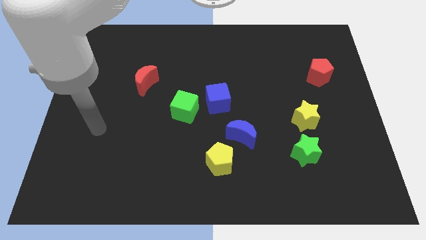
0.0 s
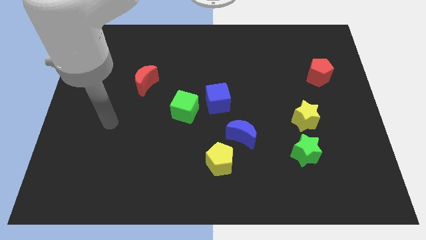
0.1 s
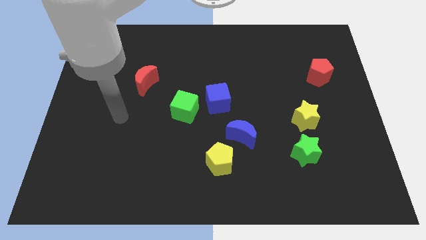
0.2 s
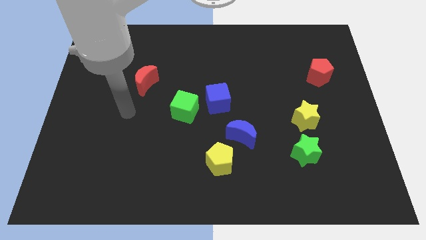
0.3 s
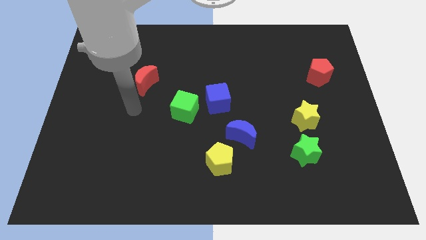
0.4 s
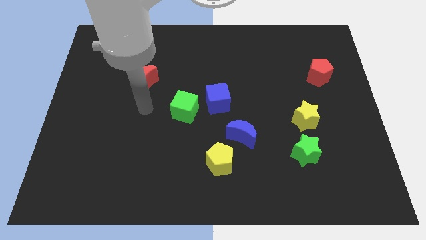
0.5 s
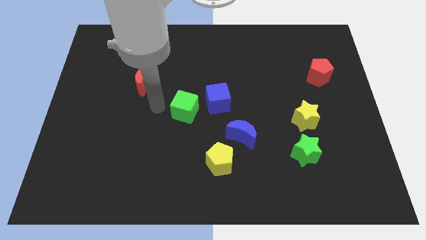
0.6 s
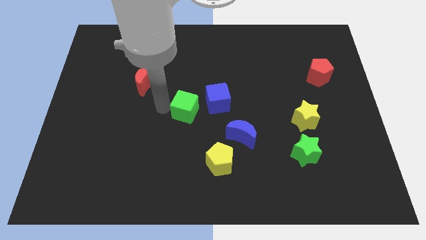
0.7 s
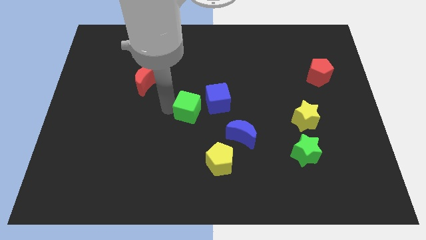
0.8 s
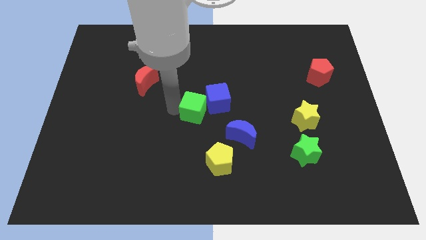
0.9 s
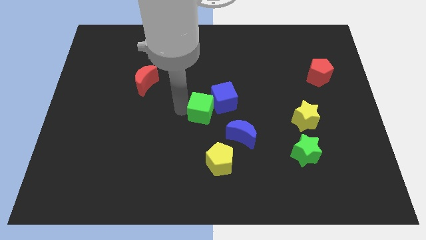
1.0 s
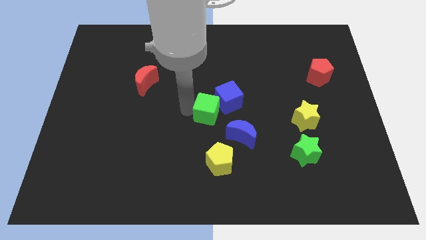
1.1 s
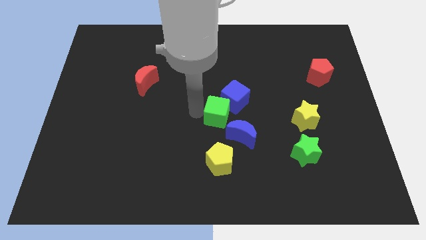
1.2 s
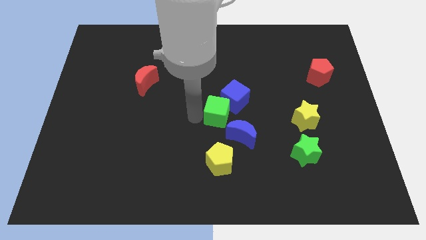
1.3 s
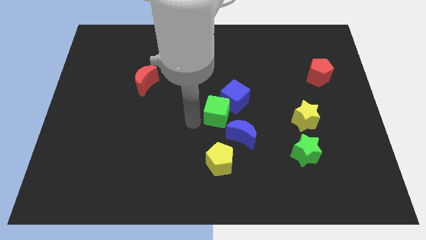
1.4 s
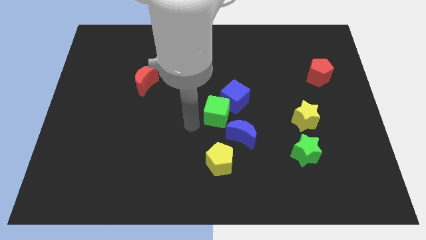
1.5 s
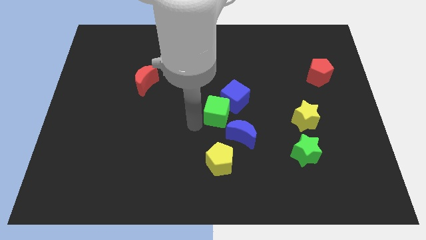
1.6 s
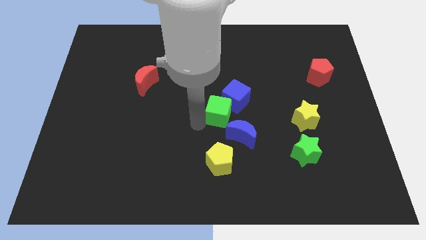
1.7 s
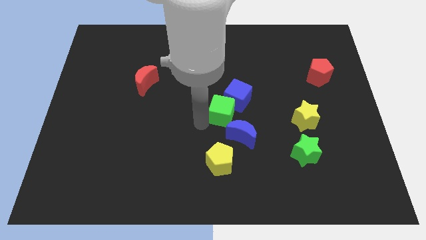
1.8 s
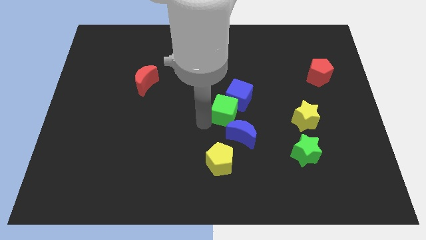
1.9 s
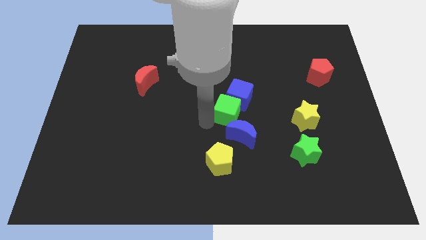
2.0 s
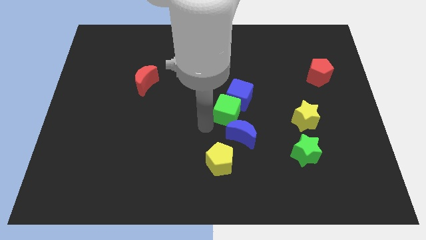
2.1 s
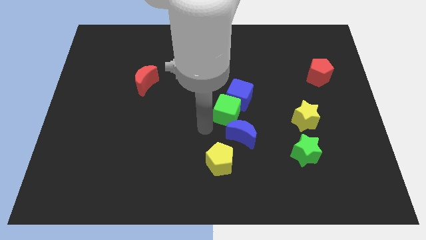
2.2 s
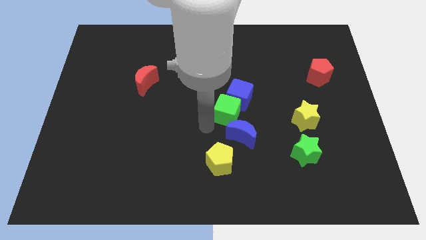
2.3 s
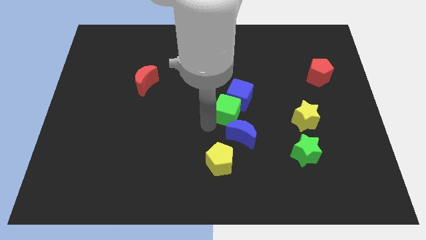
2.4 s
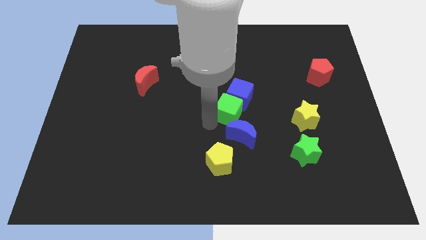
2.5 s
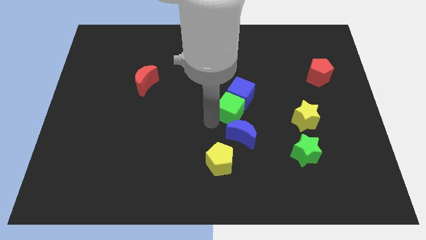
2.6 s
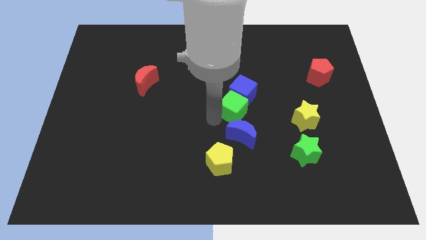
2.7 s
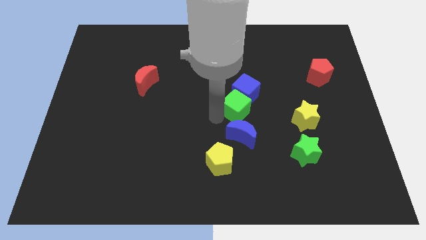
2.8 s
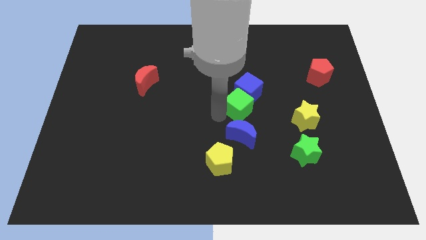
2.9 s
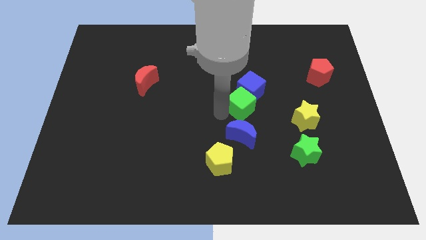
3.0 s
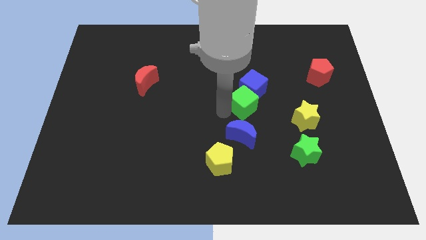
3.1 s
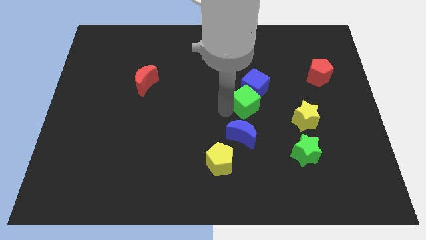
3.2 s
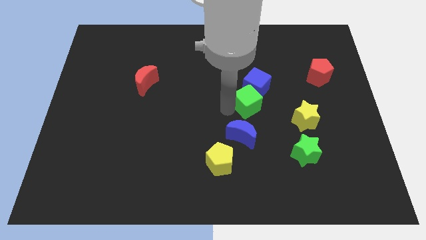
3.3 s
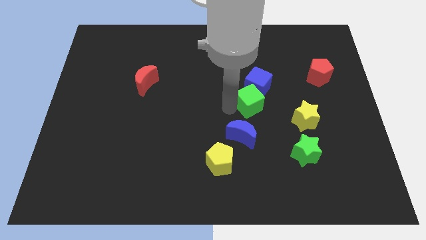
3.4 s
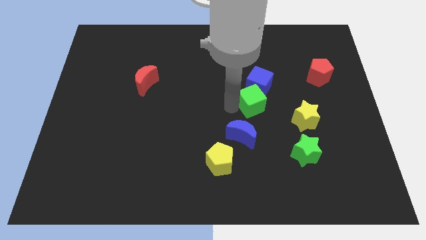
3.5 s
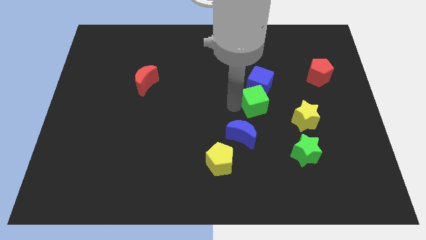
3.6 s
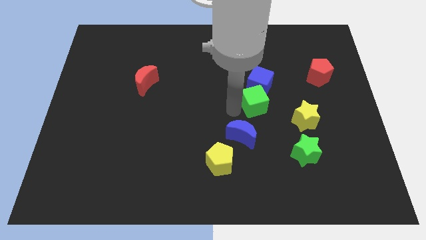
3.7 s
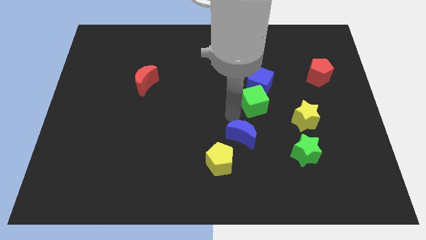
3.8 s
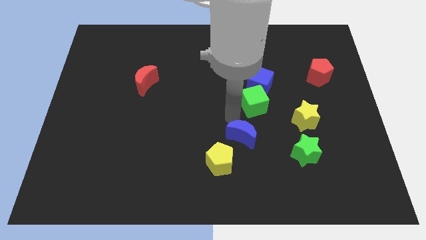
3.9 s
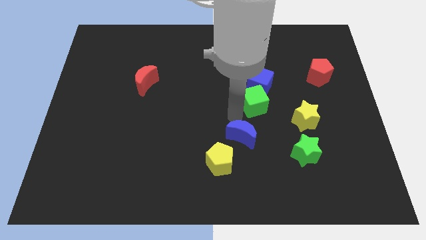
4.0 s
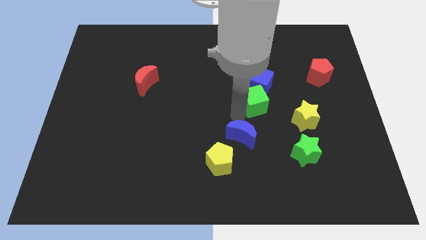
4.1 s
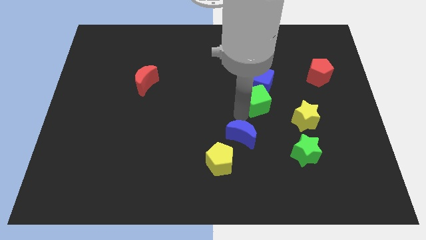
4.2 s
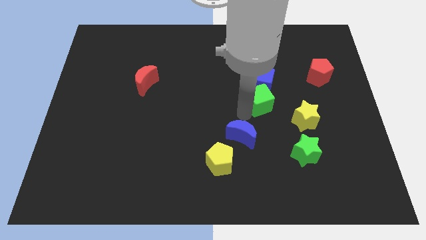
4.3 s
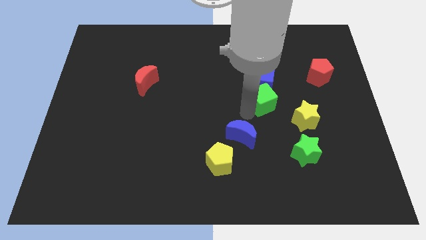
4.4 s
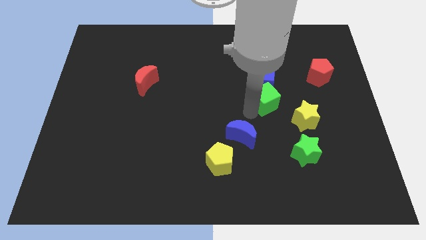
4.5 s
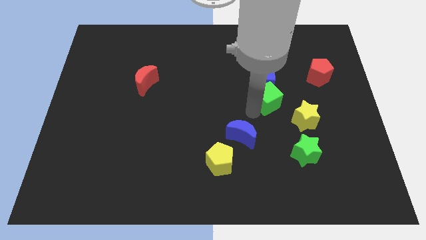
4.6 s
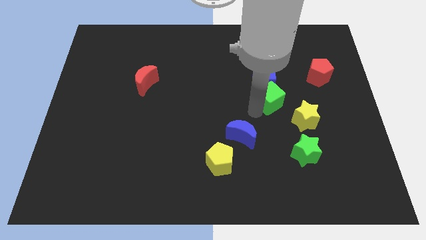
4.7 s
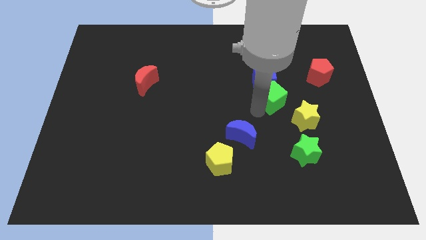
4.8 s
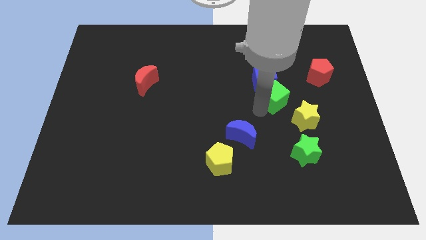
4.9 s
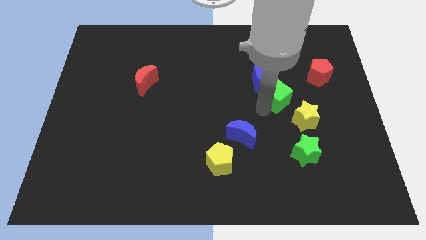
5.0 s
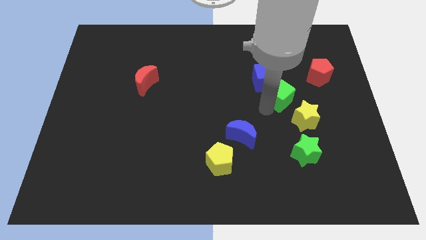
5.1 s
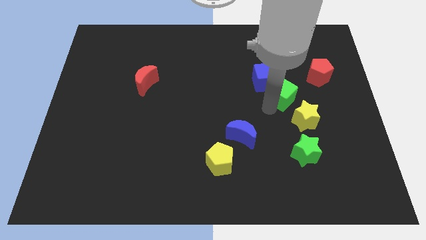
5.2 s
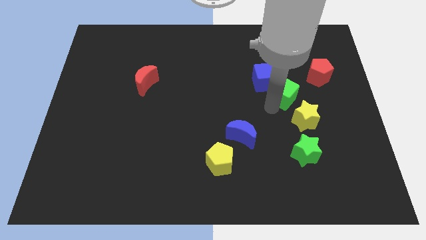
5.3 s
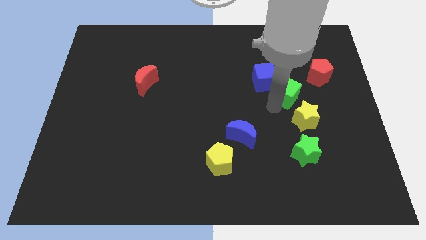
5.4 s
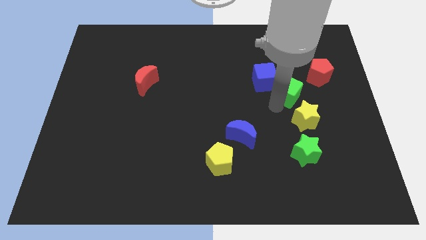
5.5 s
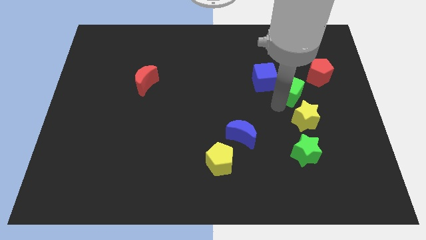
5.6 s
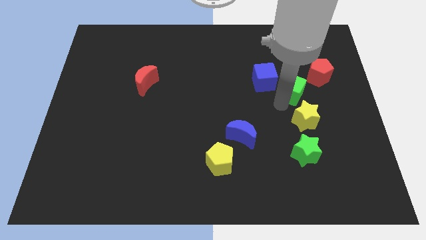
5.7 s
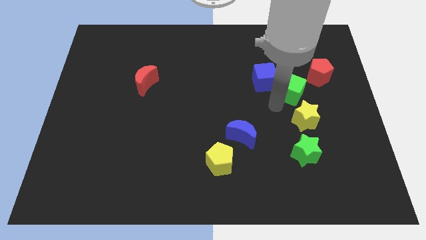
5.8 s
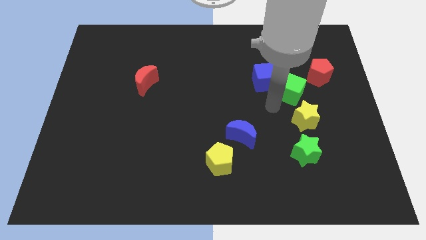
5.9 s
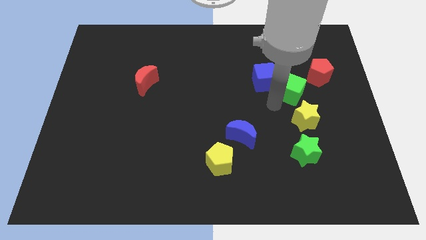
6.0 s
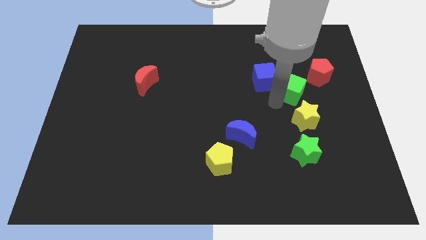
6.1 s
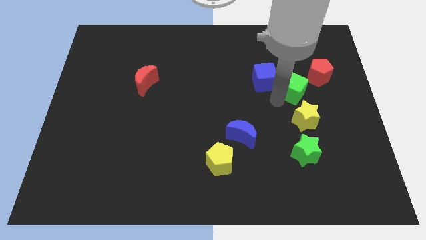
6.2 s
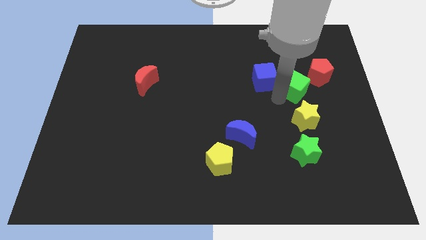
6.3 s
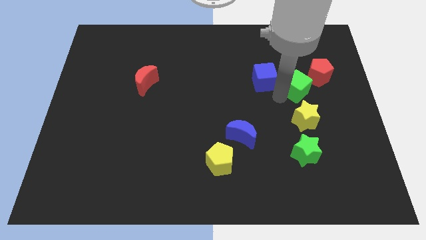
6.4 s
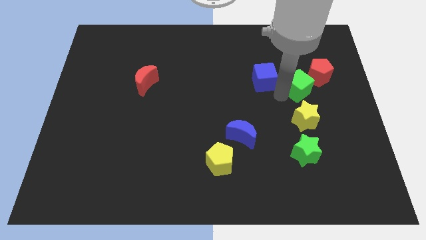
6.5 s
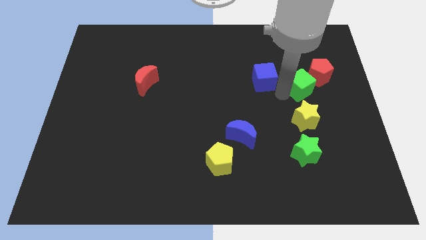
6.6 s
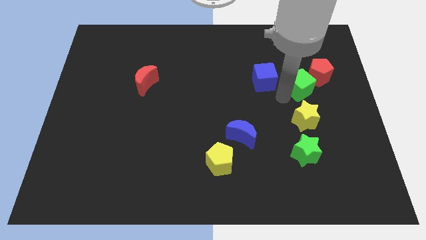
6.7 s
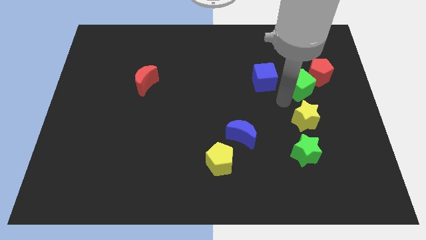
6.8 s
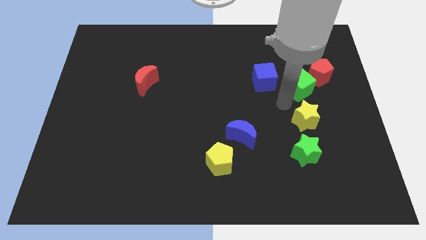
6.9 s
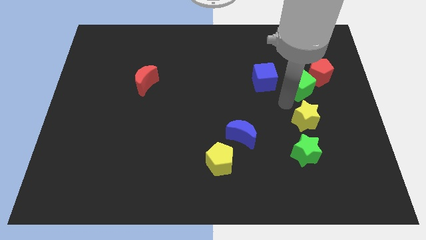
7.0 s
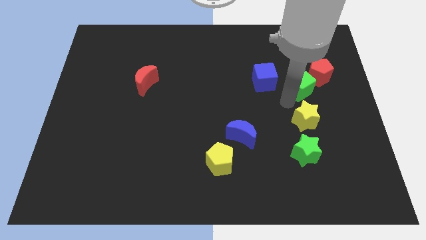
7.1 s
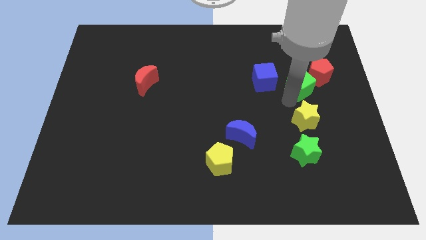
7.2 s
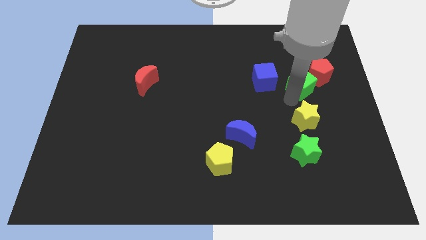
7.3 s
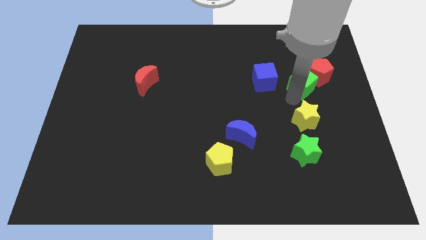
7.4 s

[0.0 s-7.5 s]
put the green cube close to the red pentagon

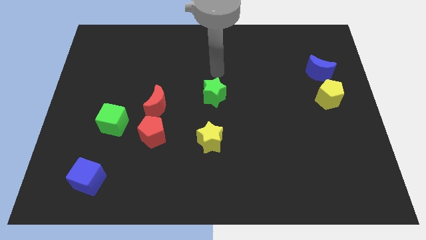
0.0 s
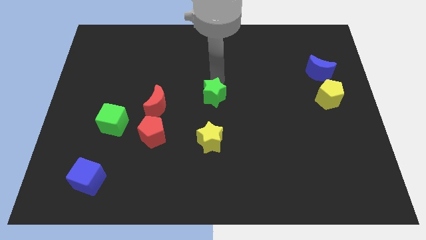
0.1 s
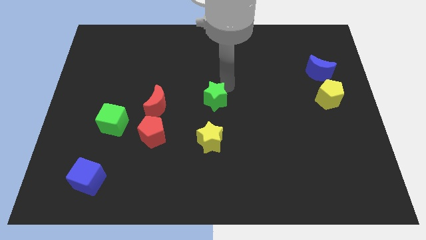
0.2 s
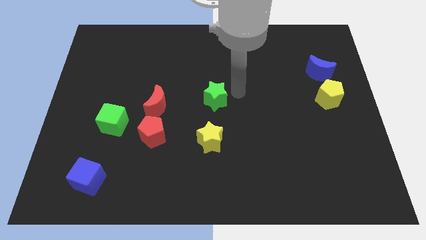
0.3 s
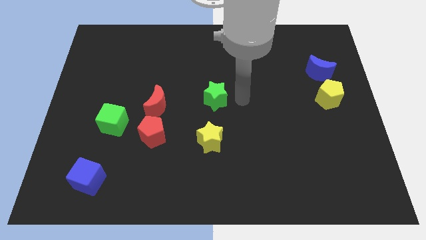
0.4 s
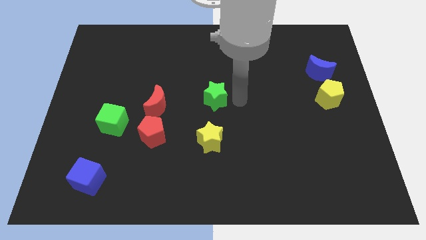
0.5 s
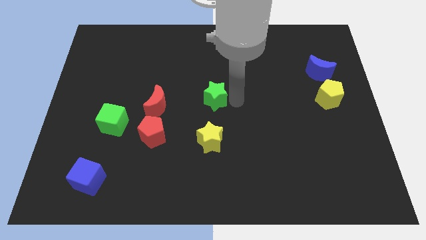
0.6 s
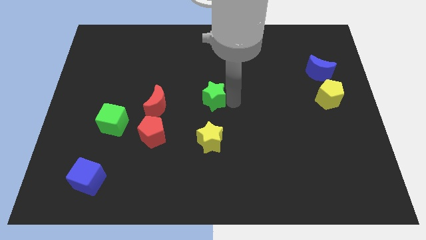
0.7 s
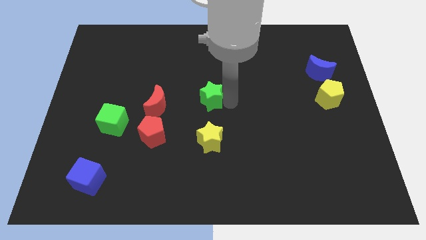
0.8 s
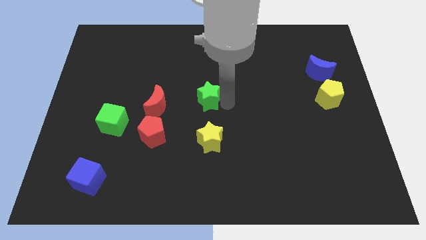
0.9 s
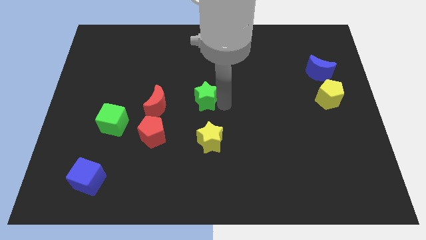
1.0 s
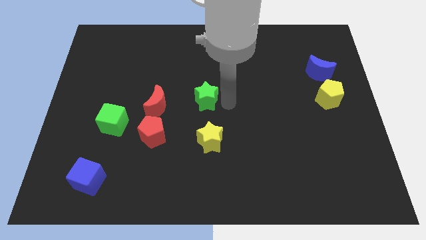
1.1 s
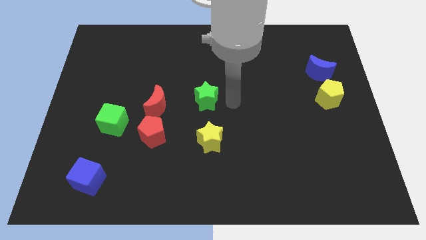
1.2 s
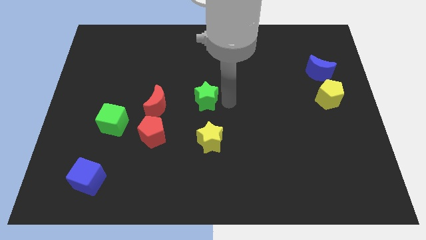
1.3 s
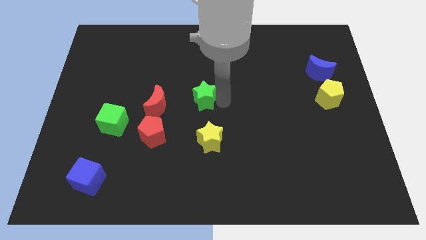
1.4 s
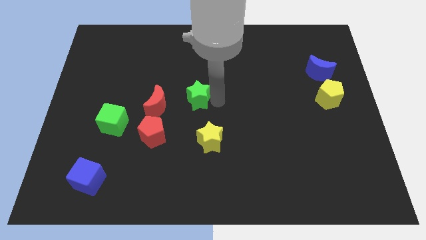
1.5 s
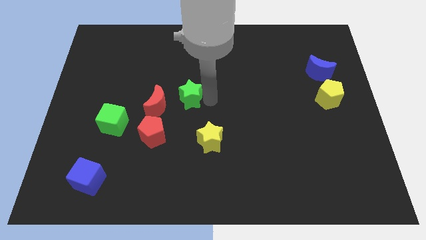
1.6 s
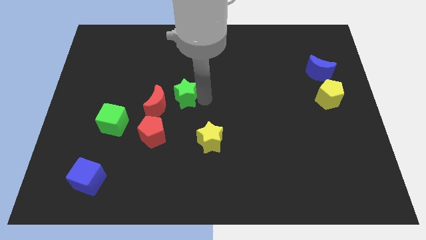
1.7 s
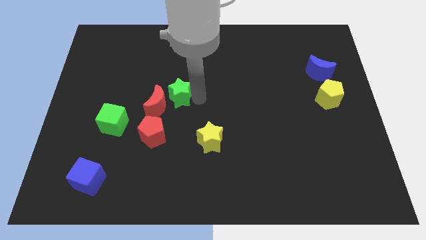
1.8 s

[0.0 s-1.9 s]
move the green star towards the red moon
